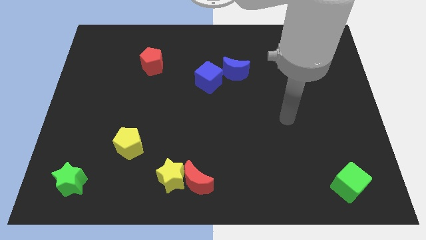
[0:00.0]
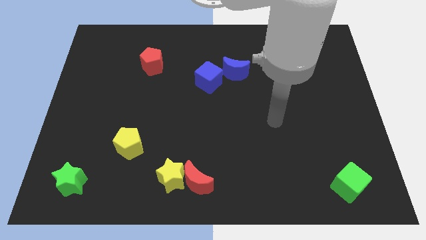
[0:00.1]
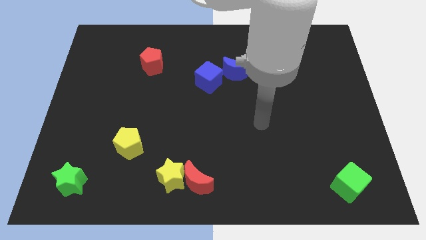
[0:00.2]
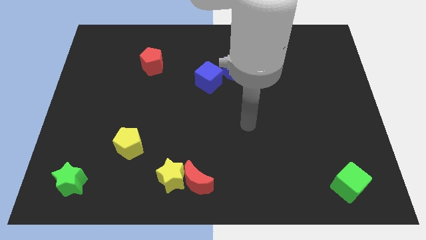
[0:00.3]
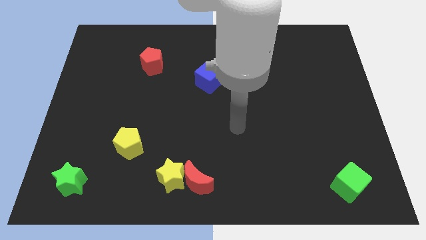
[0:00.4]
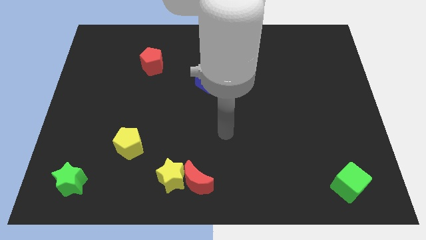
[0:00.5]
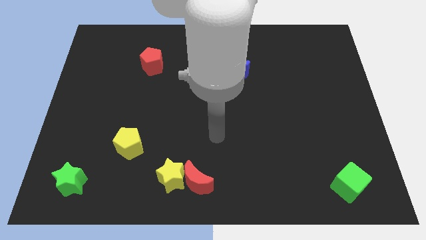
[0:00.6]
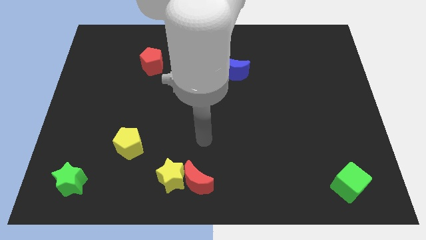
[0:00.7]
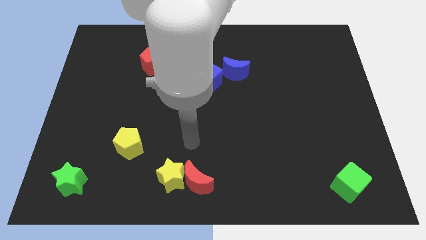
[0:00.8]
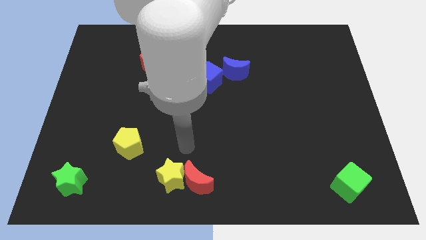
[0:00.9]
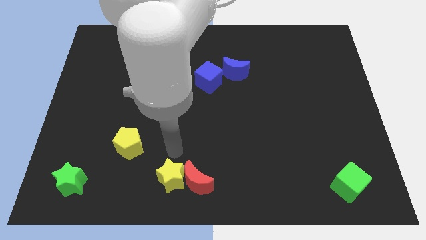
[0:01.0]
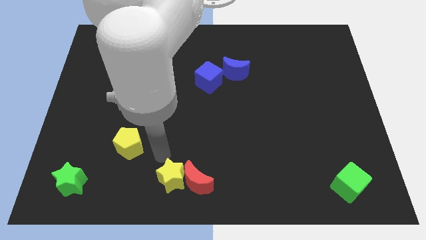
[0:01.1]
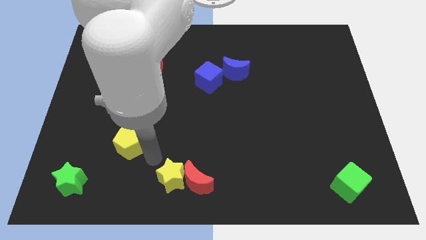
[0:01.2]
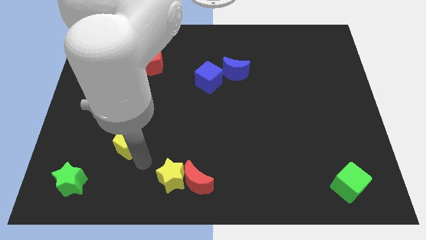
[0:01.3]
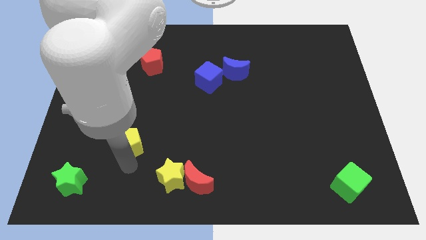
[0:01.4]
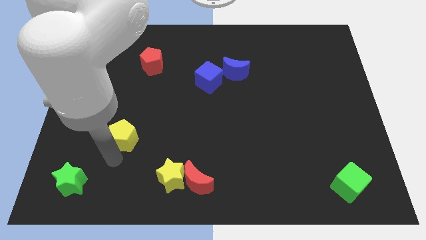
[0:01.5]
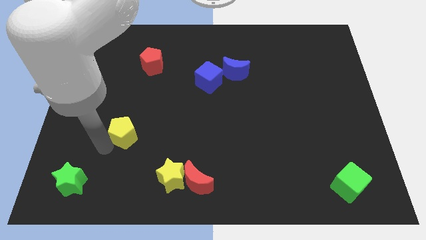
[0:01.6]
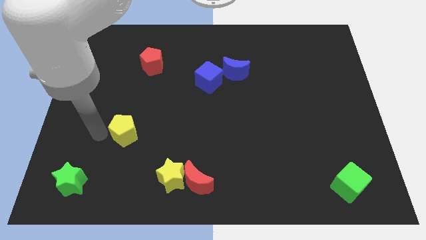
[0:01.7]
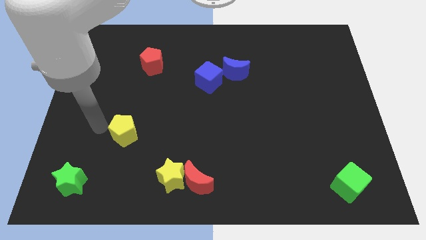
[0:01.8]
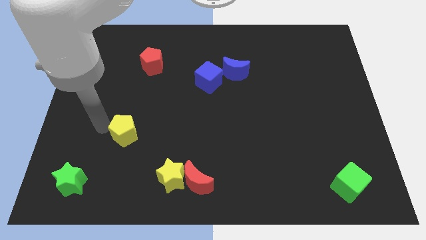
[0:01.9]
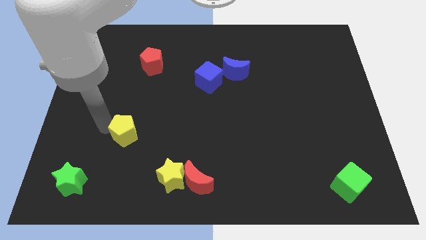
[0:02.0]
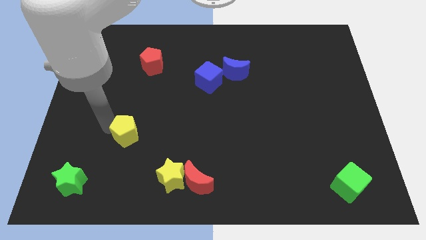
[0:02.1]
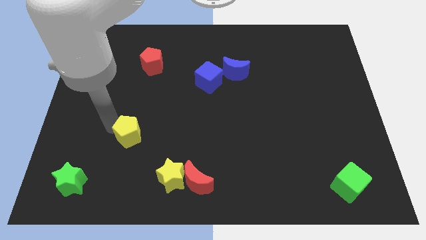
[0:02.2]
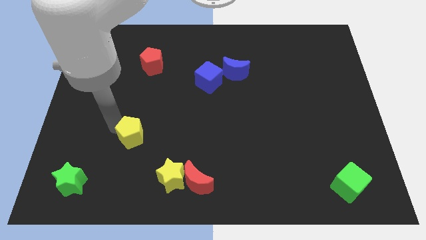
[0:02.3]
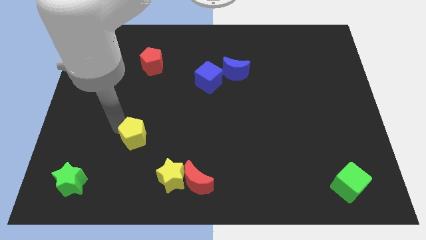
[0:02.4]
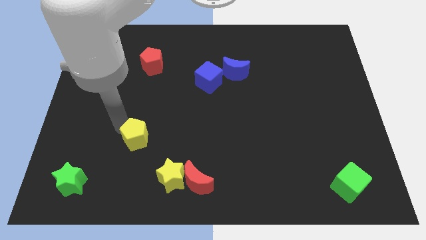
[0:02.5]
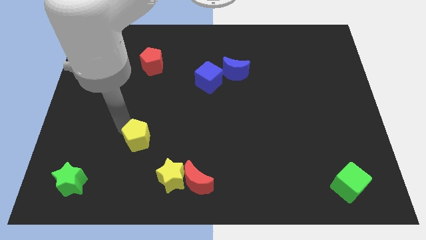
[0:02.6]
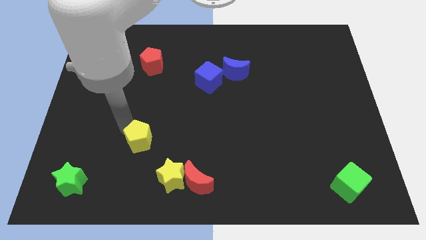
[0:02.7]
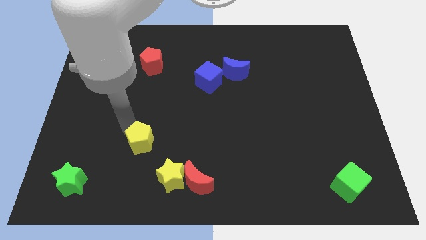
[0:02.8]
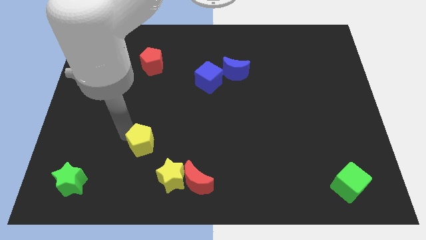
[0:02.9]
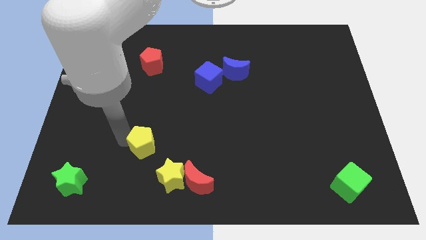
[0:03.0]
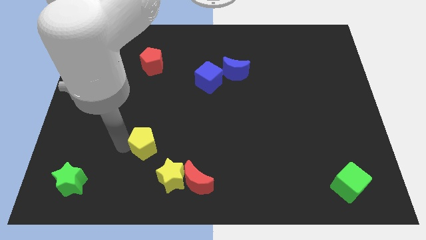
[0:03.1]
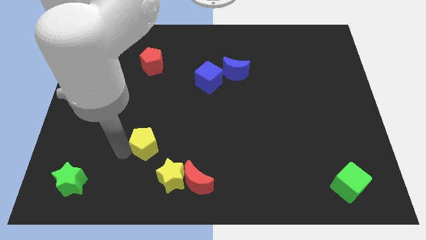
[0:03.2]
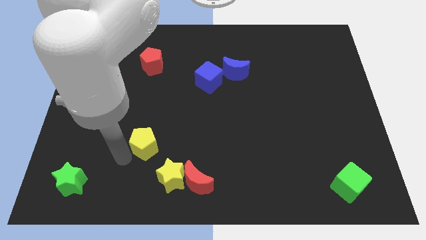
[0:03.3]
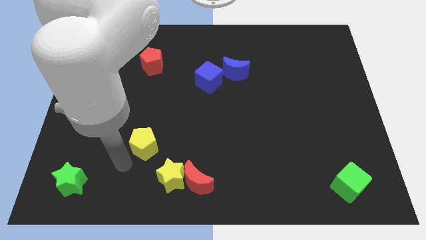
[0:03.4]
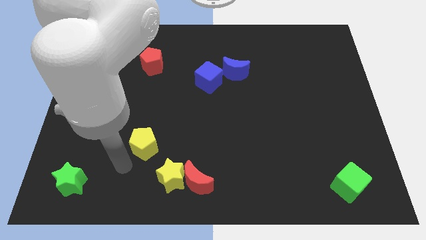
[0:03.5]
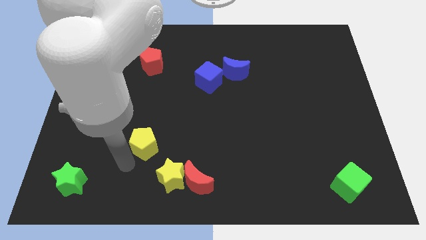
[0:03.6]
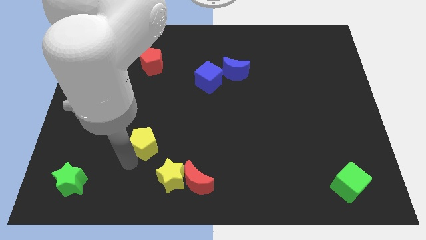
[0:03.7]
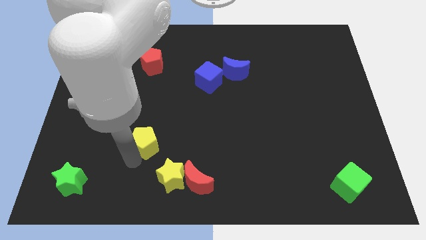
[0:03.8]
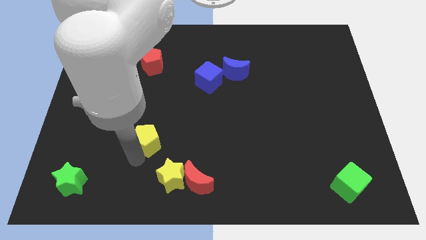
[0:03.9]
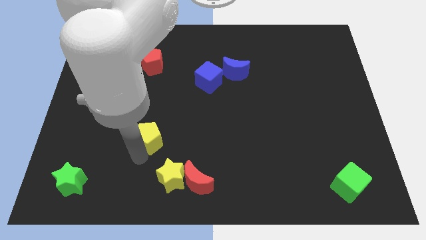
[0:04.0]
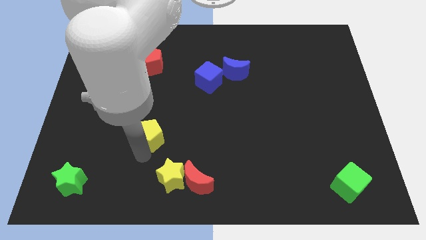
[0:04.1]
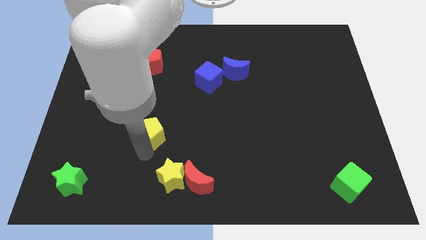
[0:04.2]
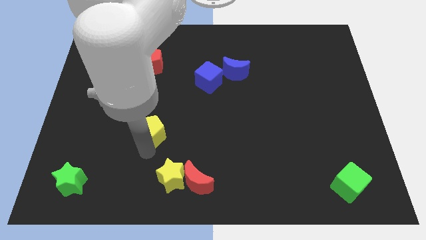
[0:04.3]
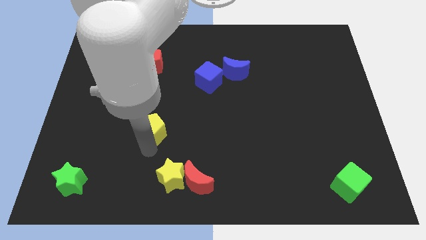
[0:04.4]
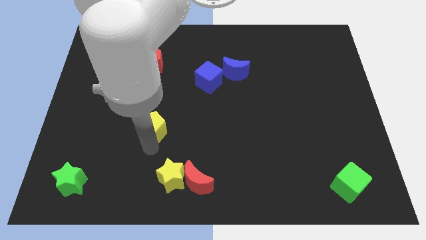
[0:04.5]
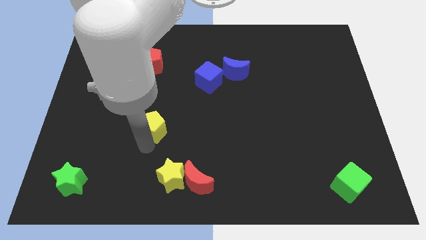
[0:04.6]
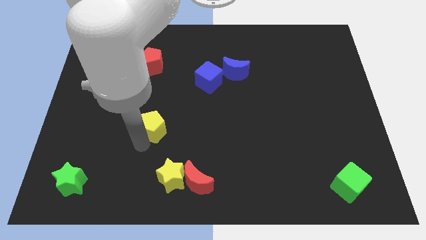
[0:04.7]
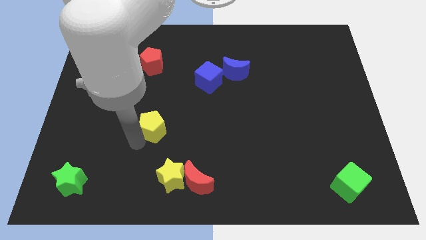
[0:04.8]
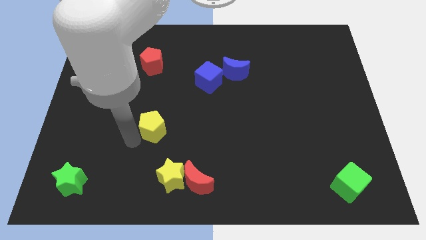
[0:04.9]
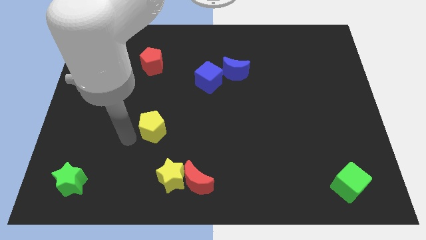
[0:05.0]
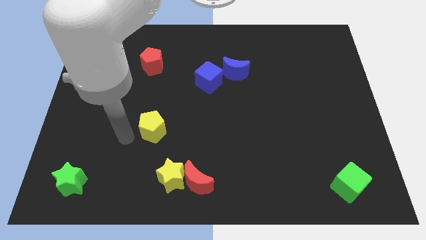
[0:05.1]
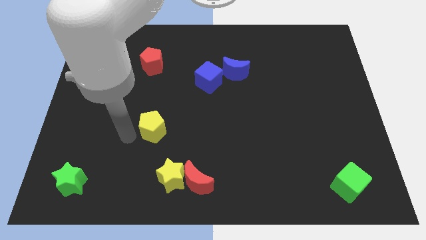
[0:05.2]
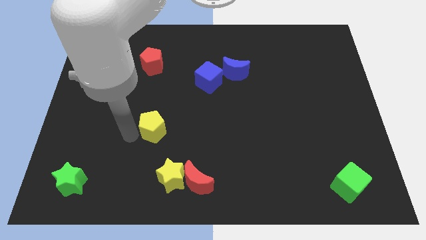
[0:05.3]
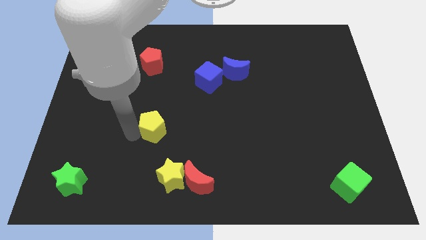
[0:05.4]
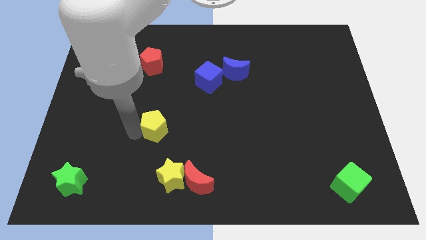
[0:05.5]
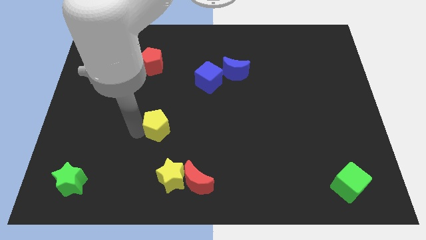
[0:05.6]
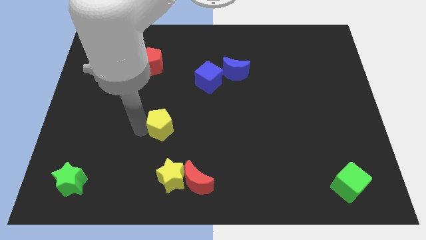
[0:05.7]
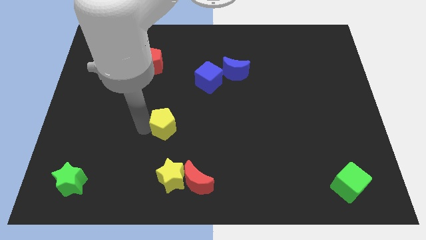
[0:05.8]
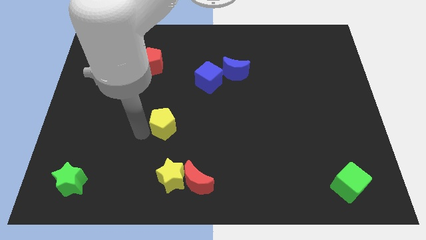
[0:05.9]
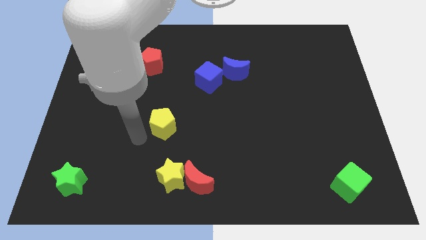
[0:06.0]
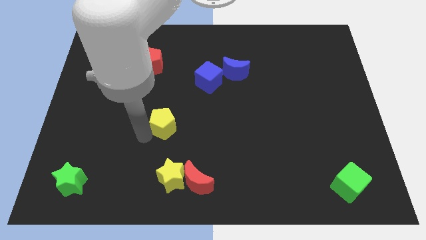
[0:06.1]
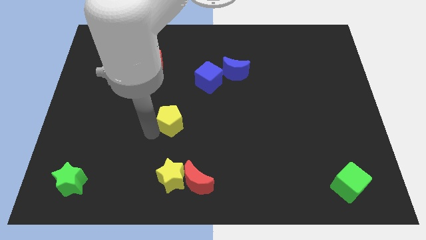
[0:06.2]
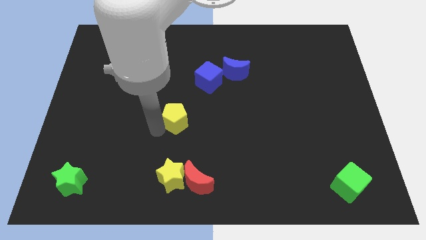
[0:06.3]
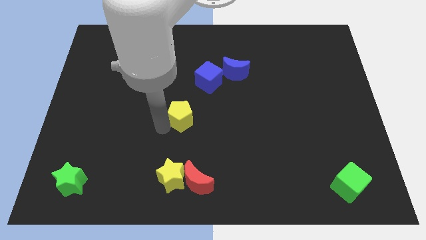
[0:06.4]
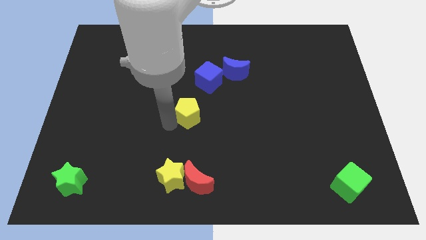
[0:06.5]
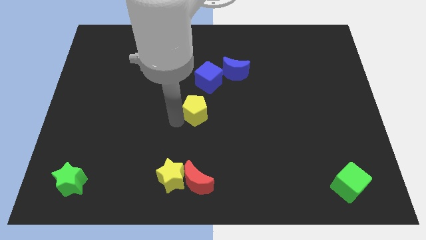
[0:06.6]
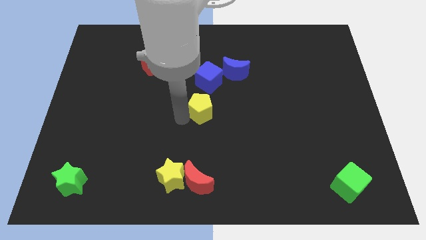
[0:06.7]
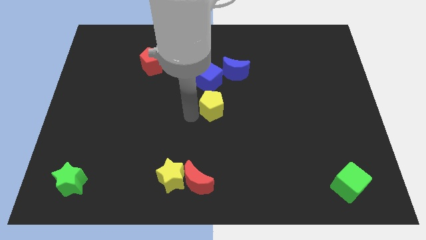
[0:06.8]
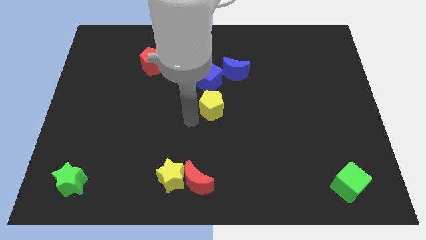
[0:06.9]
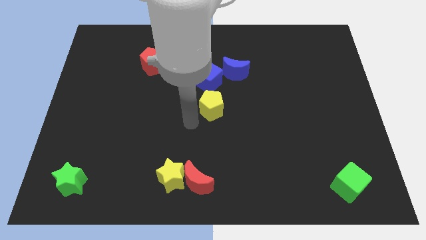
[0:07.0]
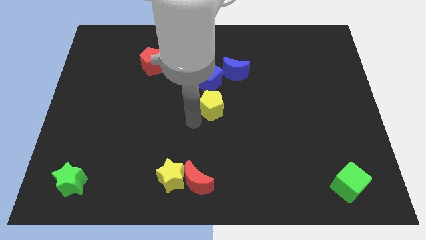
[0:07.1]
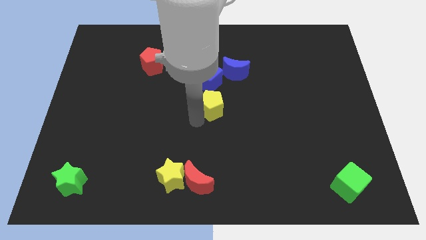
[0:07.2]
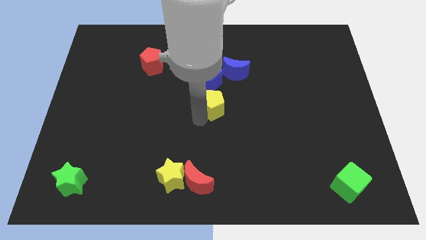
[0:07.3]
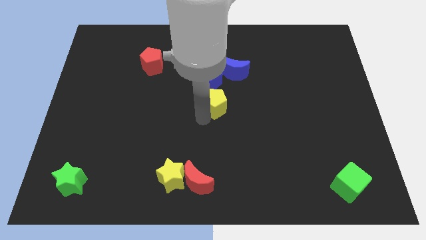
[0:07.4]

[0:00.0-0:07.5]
push the yellow pentagon to the bottom right side of the blue cube
